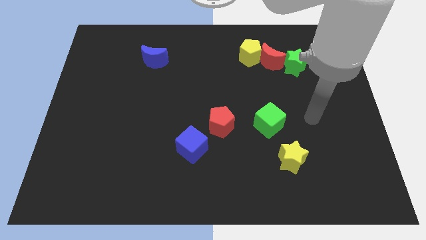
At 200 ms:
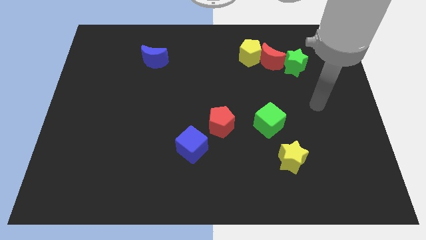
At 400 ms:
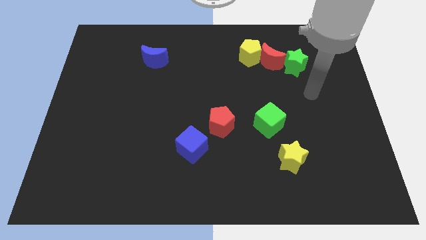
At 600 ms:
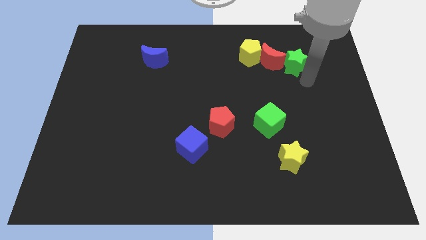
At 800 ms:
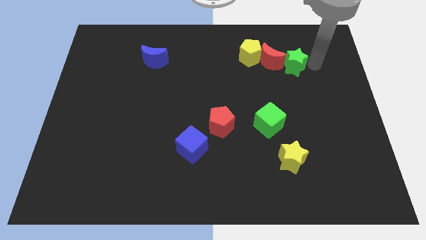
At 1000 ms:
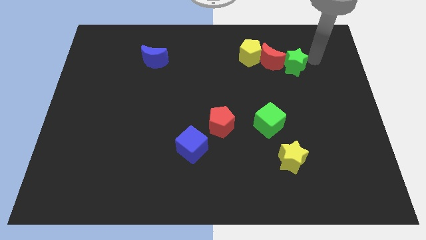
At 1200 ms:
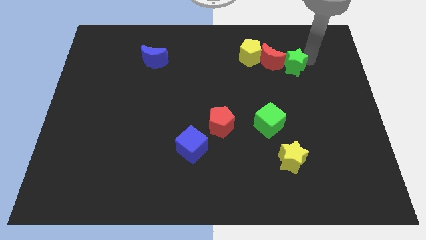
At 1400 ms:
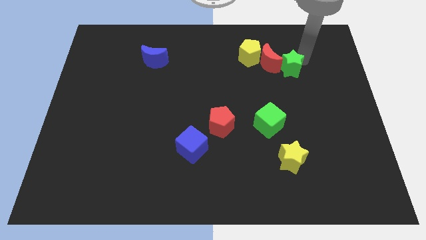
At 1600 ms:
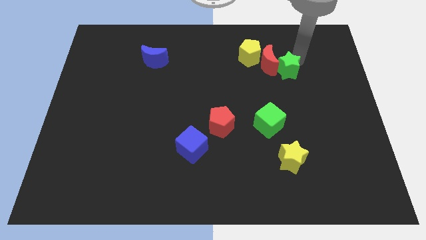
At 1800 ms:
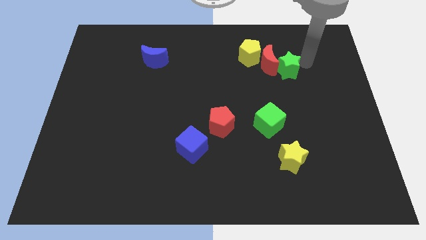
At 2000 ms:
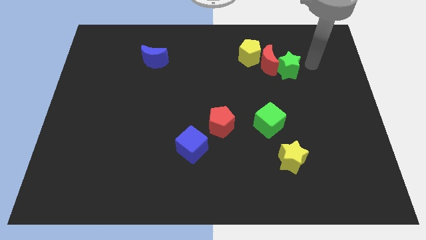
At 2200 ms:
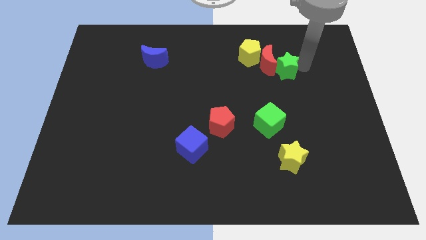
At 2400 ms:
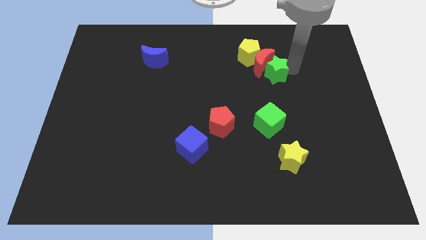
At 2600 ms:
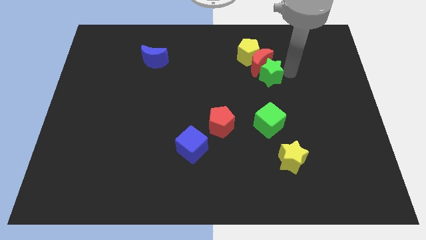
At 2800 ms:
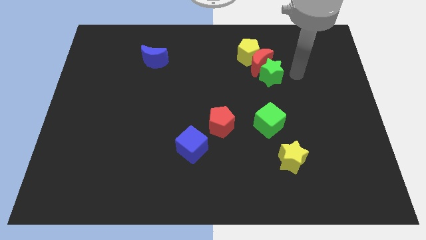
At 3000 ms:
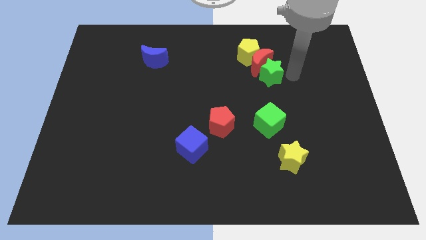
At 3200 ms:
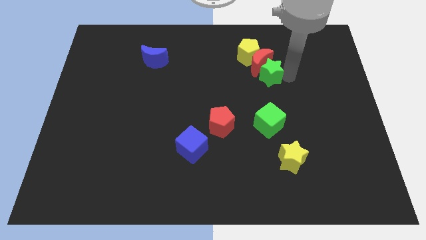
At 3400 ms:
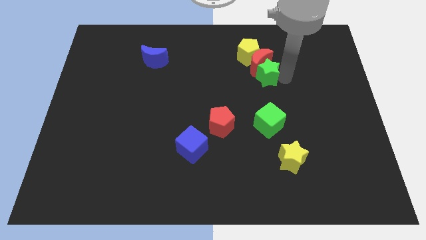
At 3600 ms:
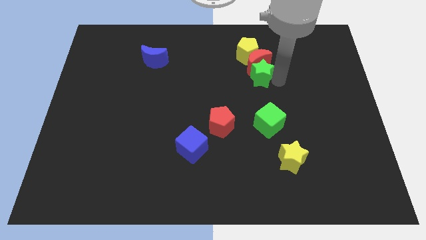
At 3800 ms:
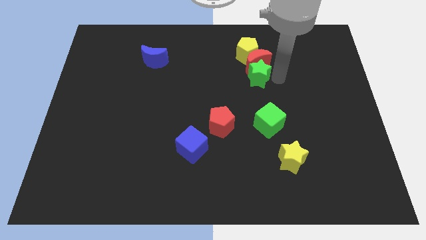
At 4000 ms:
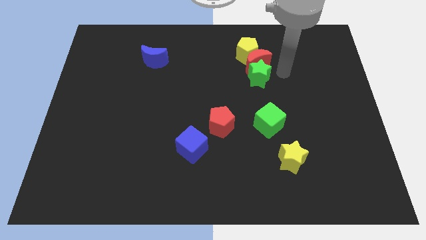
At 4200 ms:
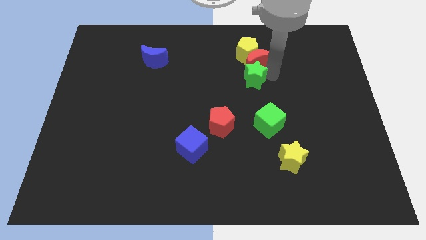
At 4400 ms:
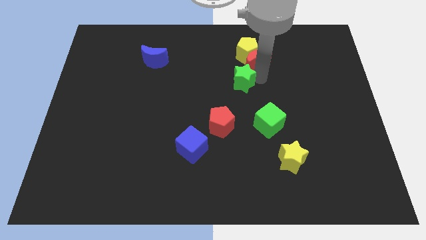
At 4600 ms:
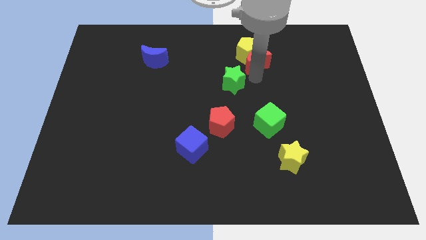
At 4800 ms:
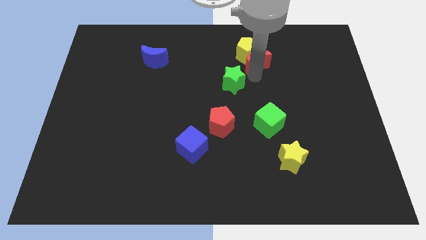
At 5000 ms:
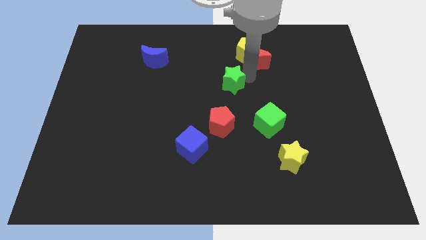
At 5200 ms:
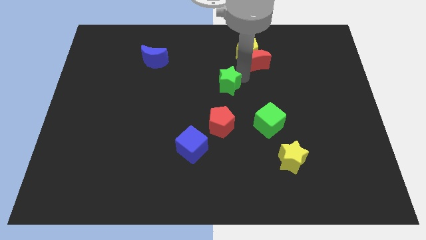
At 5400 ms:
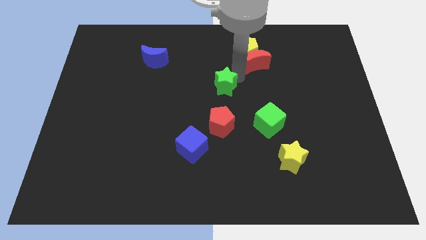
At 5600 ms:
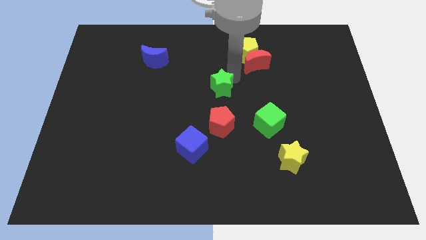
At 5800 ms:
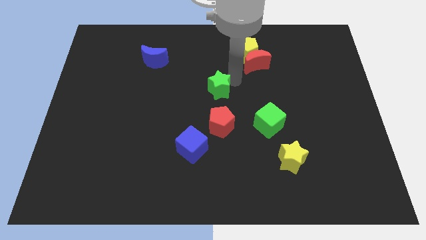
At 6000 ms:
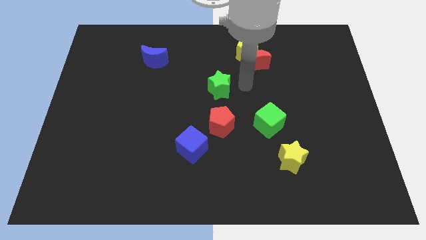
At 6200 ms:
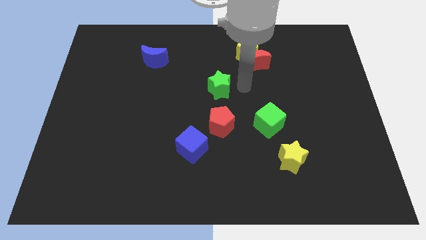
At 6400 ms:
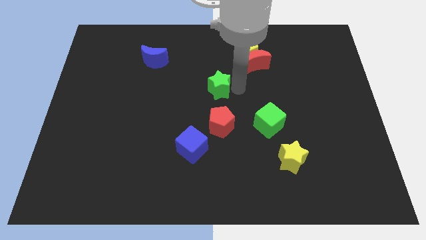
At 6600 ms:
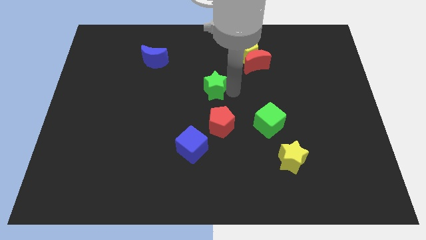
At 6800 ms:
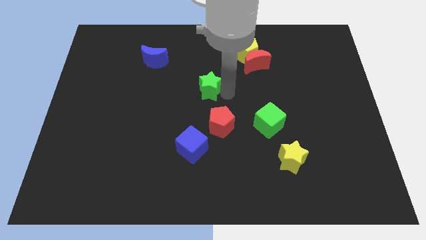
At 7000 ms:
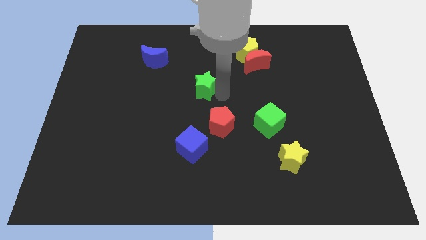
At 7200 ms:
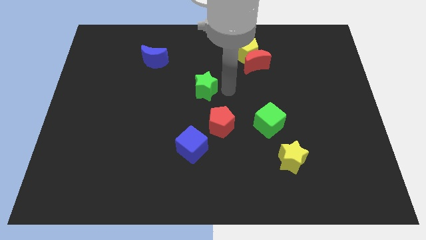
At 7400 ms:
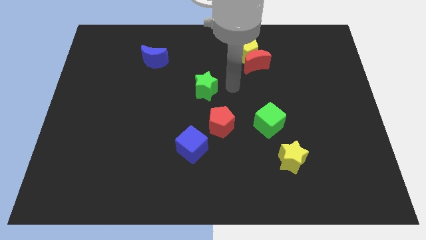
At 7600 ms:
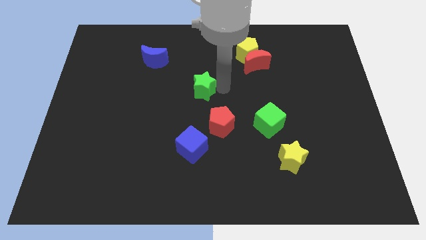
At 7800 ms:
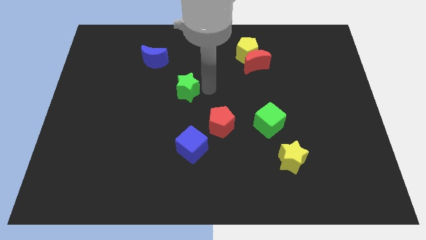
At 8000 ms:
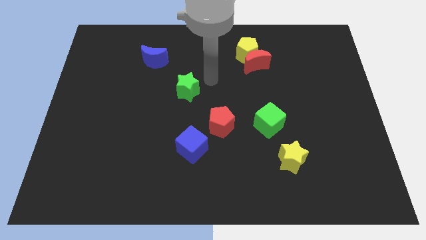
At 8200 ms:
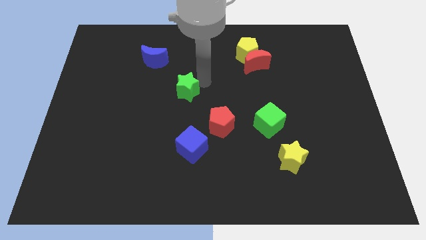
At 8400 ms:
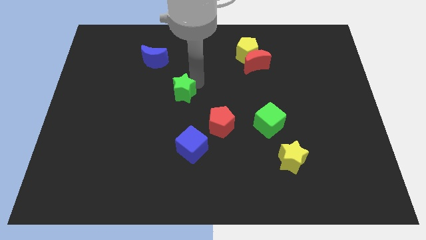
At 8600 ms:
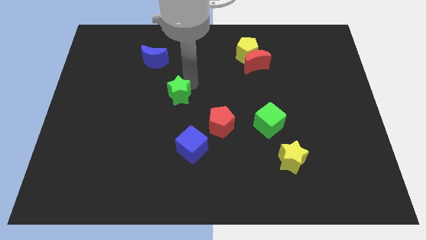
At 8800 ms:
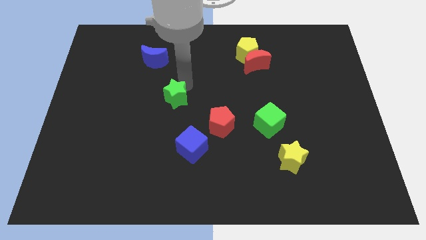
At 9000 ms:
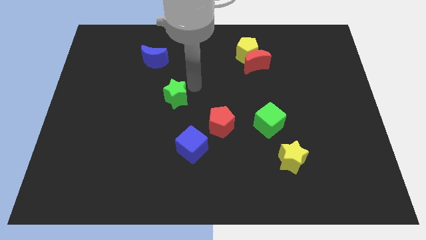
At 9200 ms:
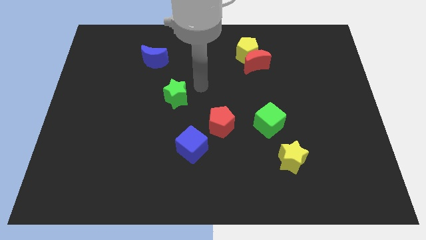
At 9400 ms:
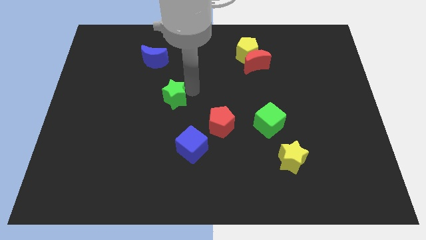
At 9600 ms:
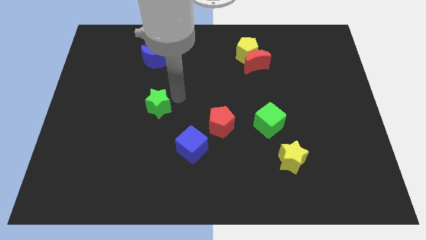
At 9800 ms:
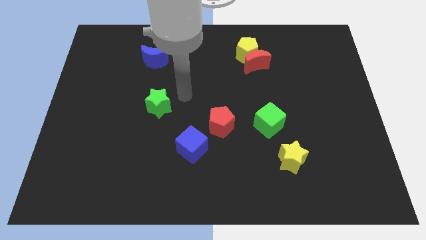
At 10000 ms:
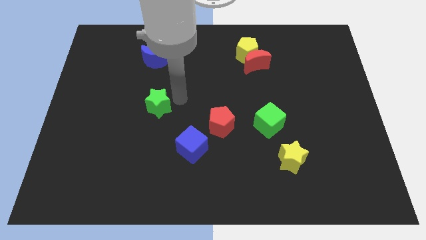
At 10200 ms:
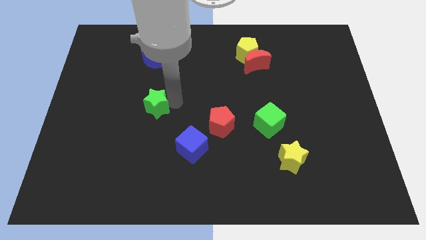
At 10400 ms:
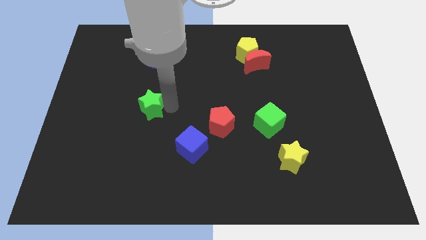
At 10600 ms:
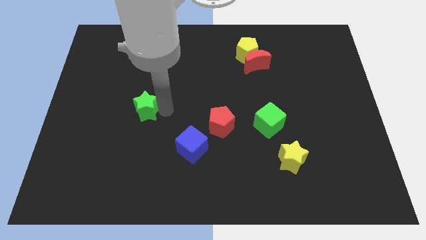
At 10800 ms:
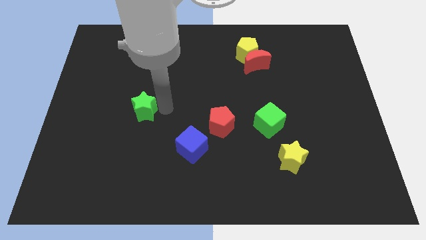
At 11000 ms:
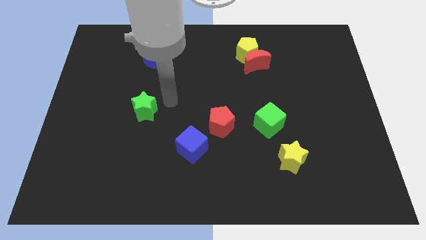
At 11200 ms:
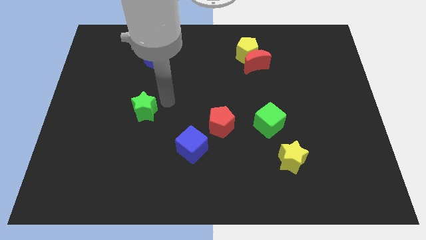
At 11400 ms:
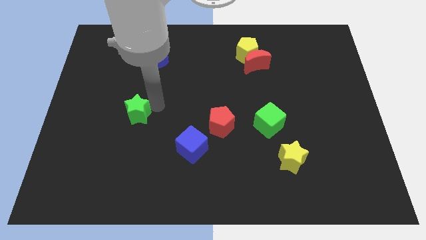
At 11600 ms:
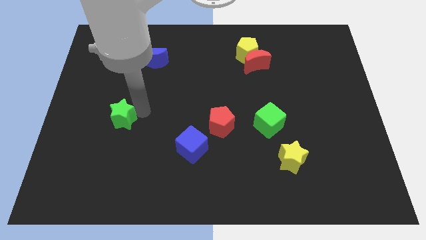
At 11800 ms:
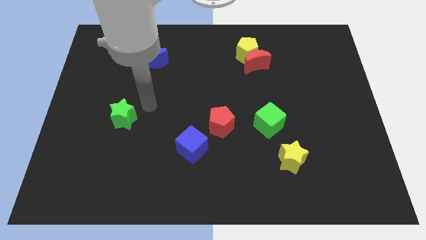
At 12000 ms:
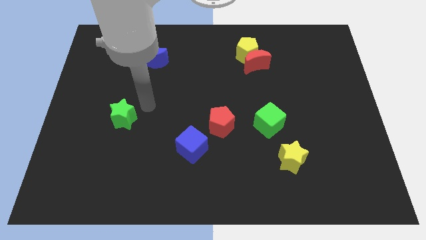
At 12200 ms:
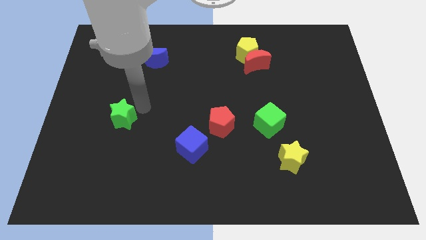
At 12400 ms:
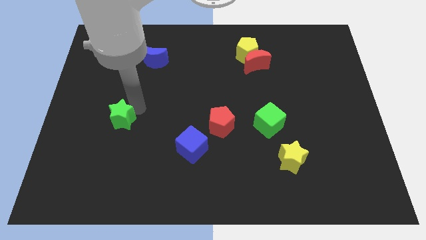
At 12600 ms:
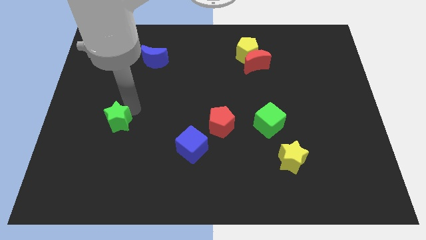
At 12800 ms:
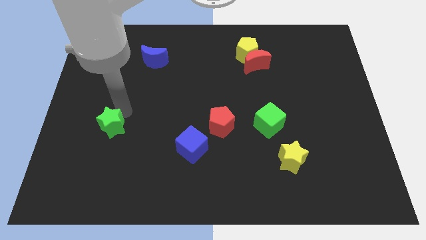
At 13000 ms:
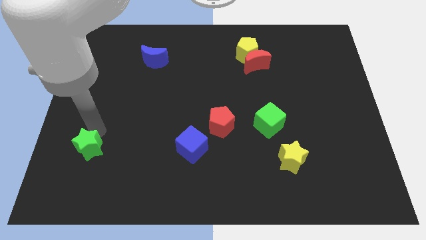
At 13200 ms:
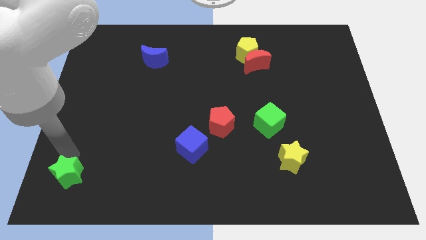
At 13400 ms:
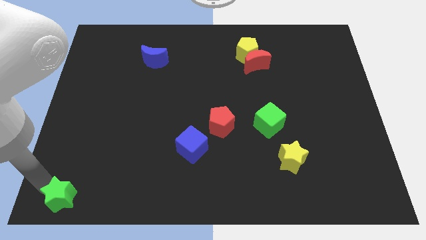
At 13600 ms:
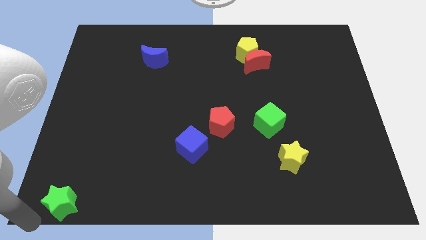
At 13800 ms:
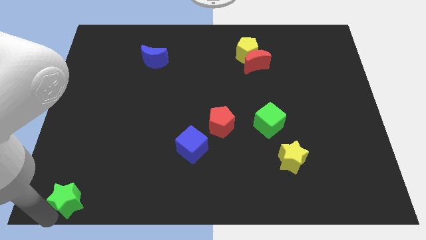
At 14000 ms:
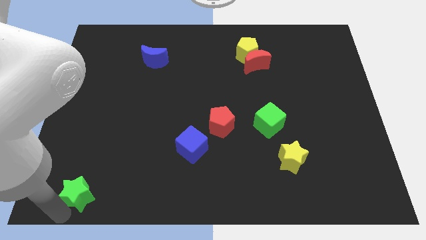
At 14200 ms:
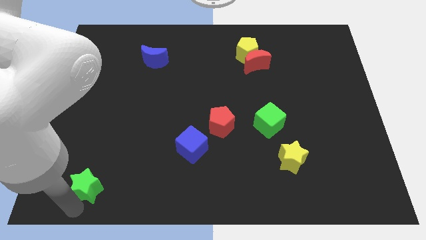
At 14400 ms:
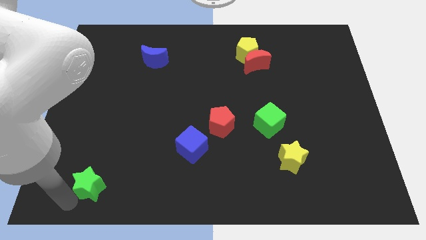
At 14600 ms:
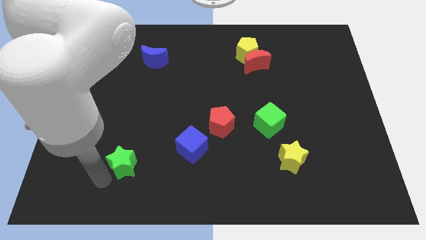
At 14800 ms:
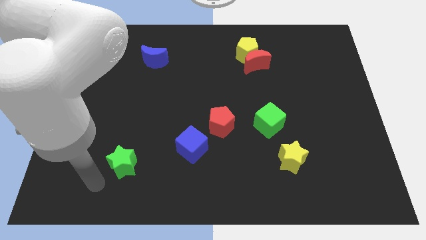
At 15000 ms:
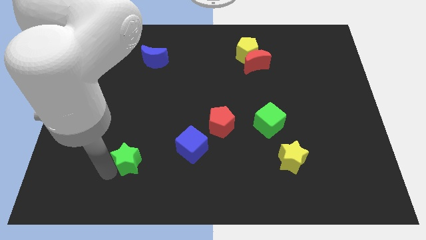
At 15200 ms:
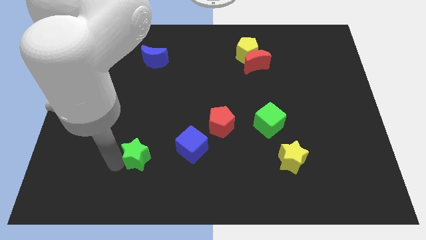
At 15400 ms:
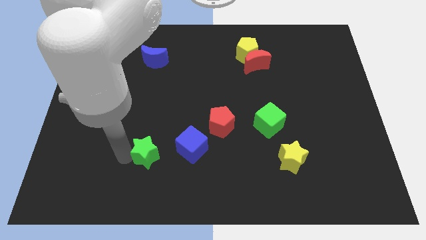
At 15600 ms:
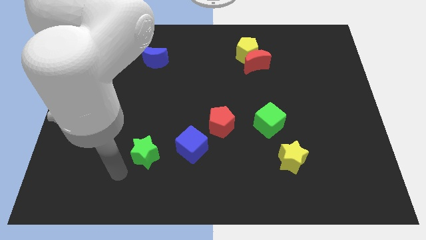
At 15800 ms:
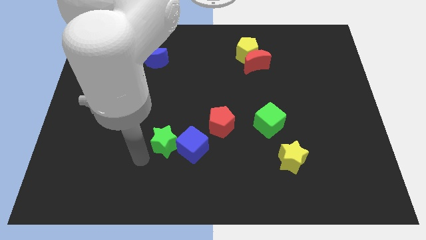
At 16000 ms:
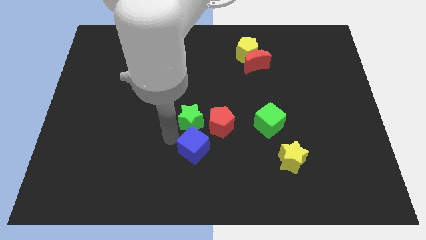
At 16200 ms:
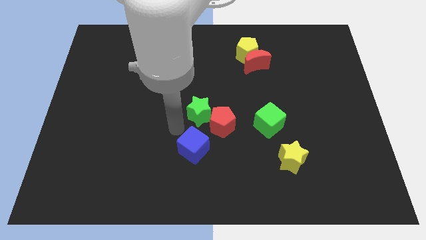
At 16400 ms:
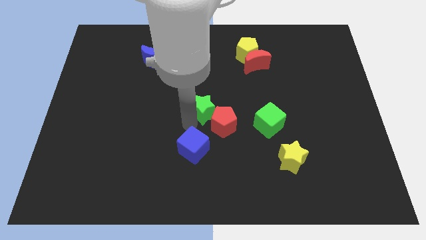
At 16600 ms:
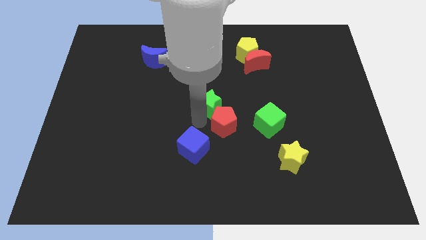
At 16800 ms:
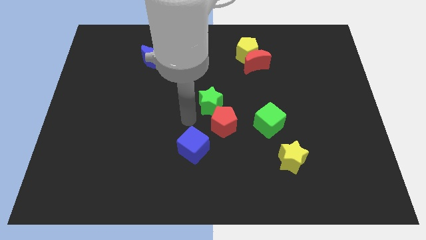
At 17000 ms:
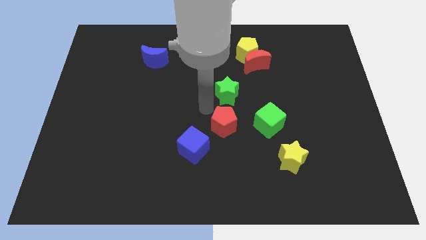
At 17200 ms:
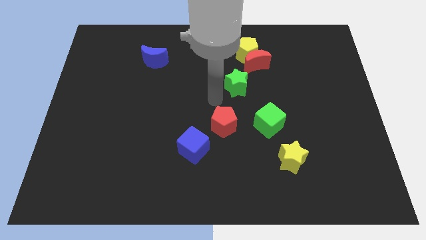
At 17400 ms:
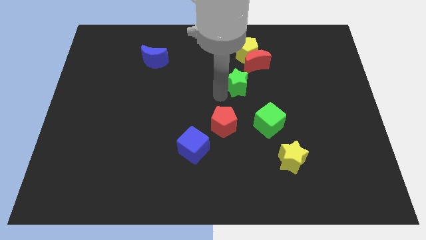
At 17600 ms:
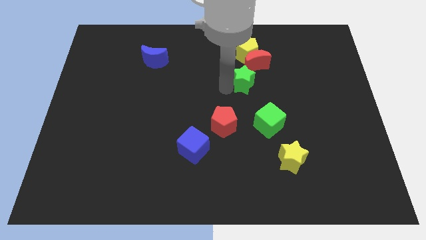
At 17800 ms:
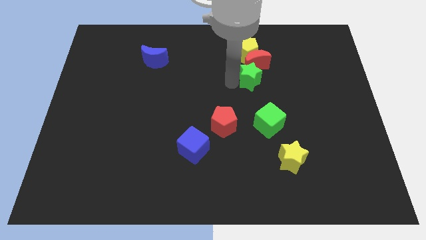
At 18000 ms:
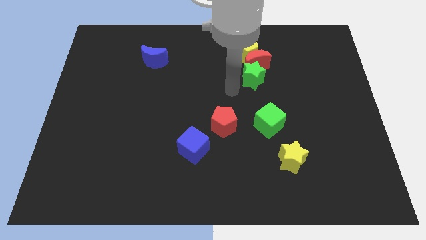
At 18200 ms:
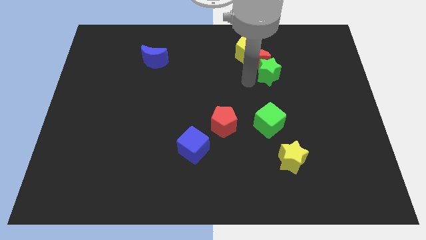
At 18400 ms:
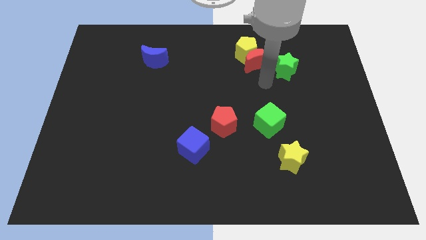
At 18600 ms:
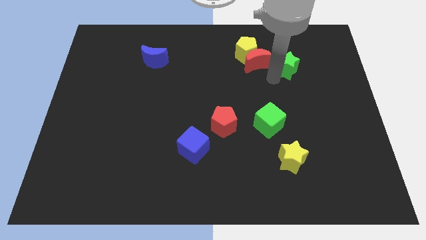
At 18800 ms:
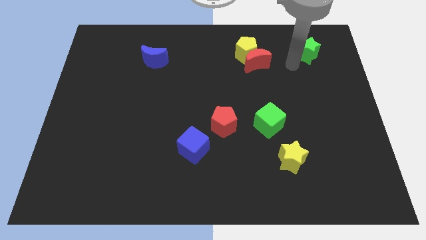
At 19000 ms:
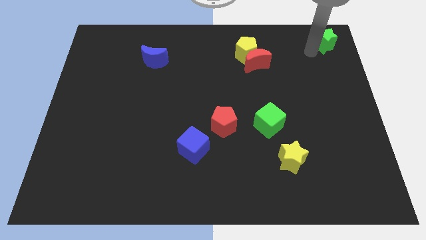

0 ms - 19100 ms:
slide the green star to the upper right corner
